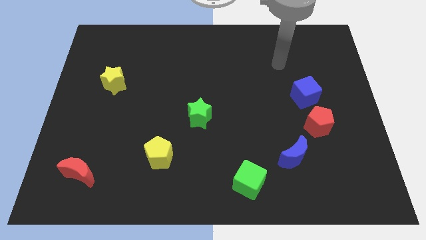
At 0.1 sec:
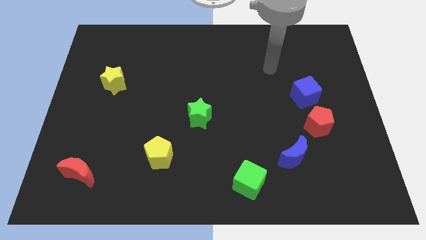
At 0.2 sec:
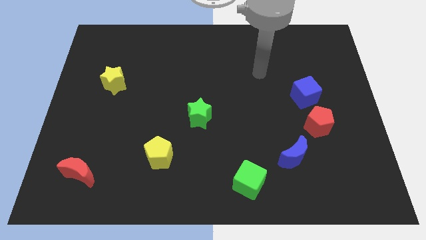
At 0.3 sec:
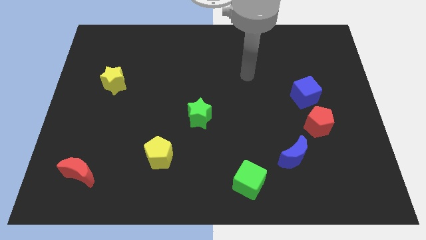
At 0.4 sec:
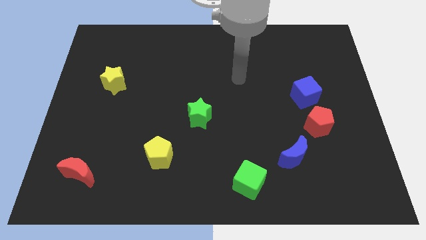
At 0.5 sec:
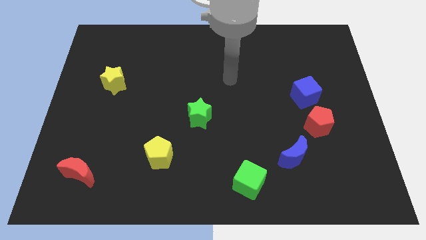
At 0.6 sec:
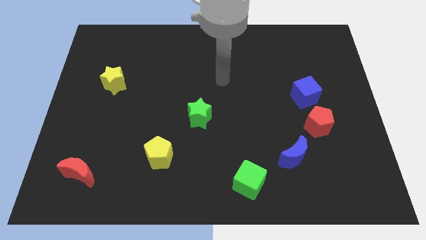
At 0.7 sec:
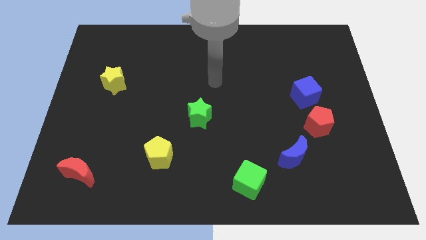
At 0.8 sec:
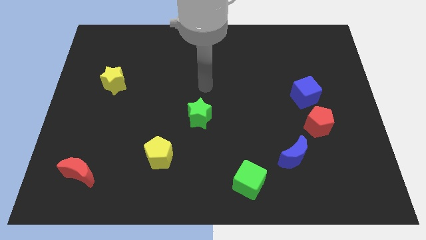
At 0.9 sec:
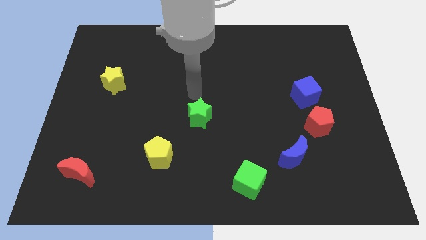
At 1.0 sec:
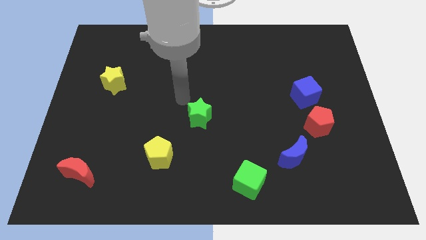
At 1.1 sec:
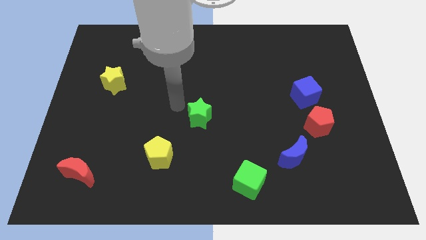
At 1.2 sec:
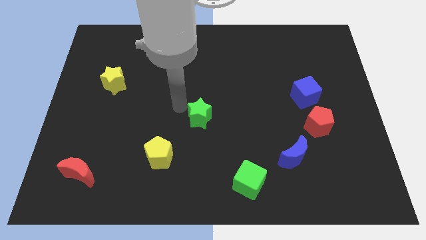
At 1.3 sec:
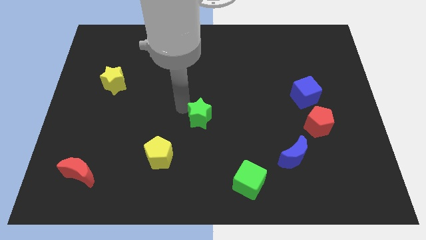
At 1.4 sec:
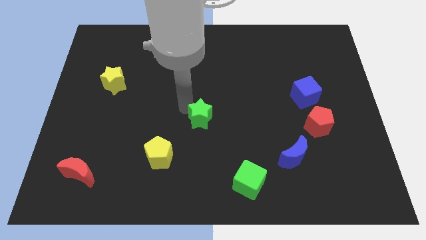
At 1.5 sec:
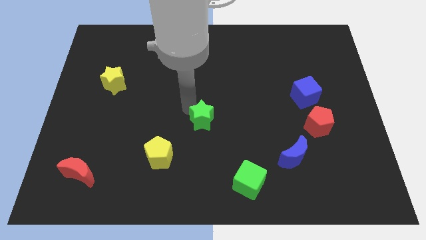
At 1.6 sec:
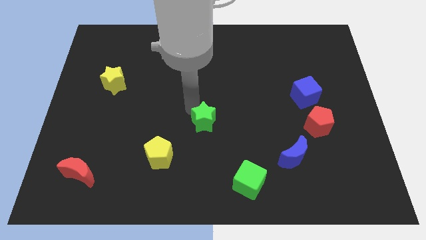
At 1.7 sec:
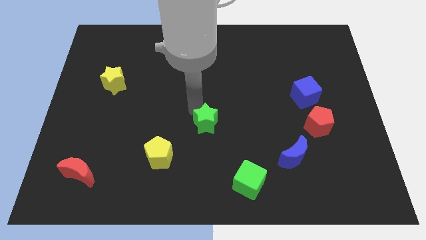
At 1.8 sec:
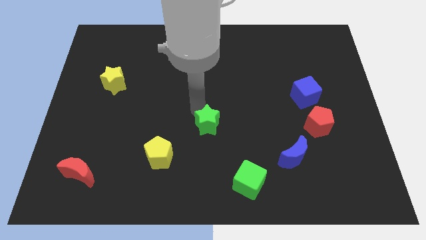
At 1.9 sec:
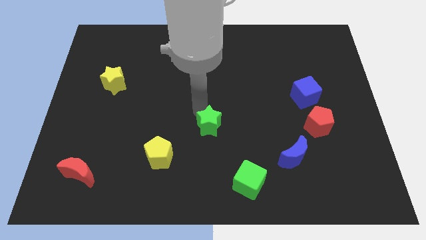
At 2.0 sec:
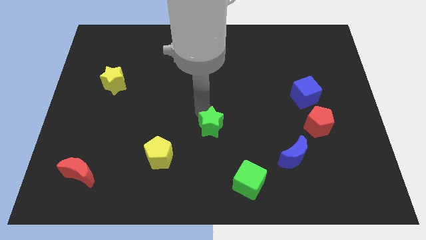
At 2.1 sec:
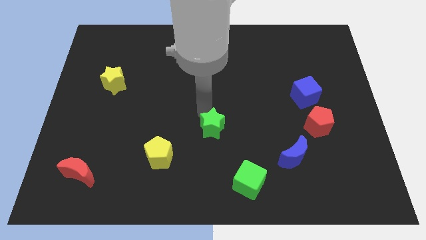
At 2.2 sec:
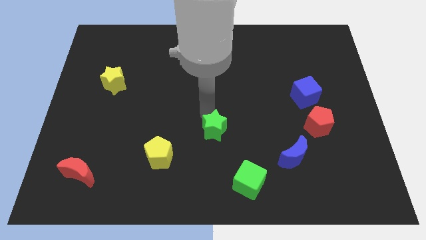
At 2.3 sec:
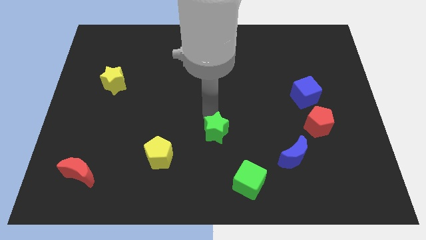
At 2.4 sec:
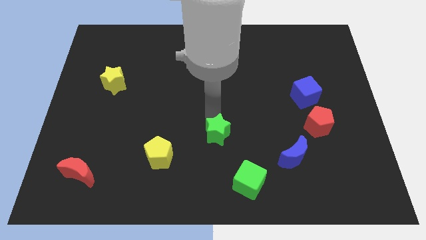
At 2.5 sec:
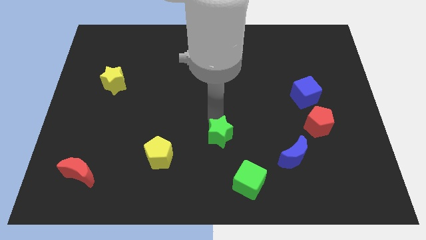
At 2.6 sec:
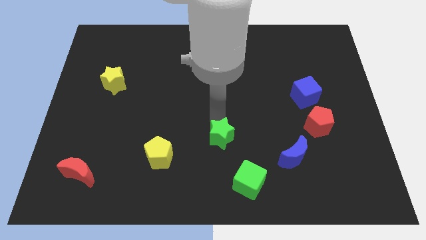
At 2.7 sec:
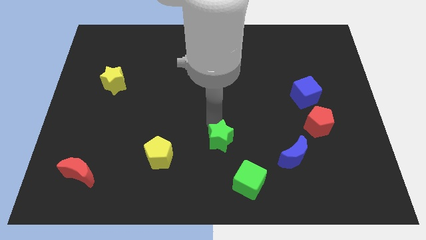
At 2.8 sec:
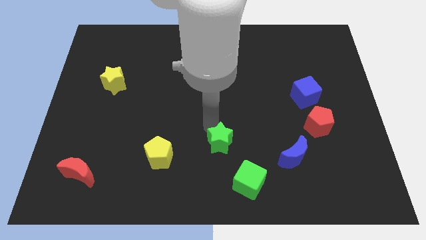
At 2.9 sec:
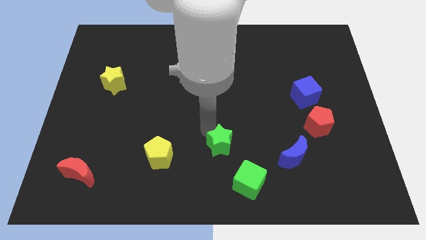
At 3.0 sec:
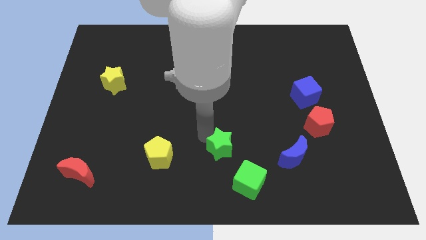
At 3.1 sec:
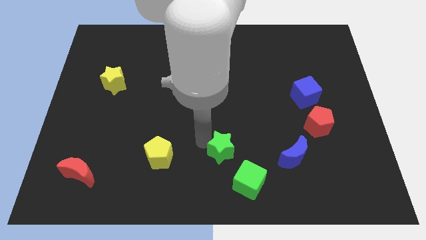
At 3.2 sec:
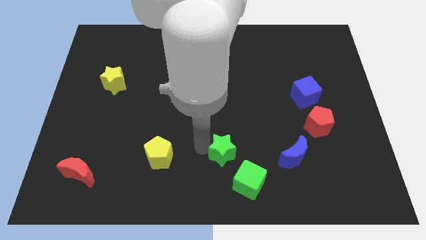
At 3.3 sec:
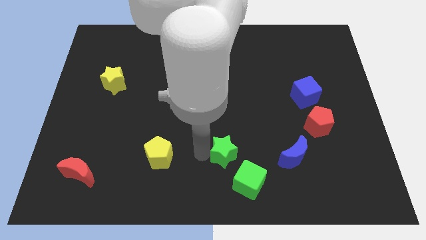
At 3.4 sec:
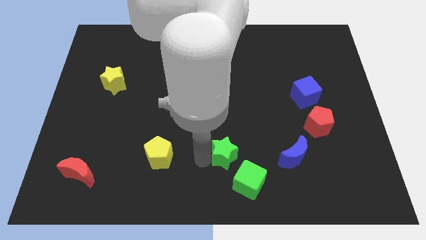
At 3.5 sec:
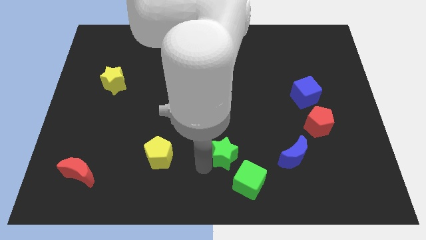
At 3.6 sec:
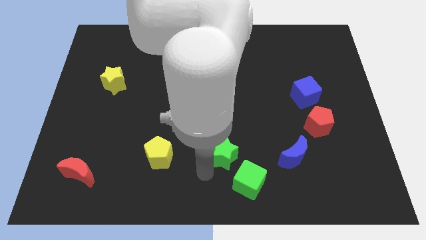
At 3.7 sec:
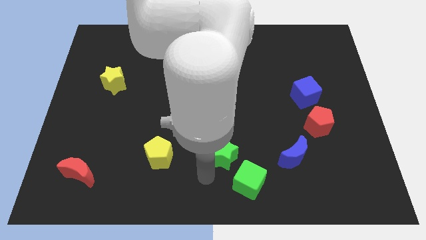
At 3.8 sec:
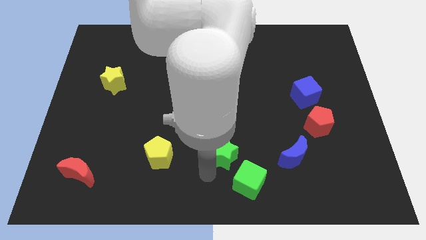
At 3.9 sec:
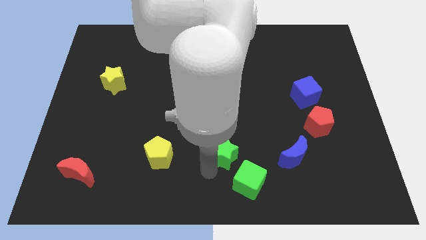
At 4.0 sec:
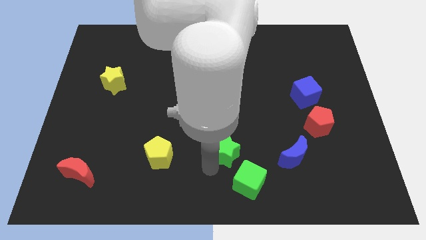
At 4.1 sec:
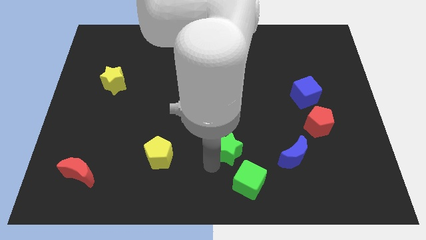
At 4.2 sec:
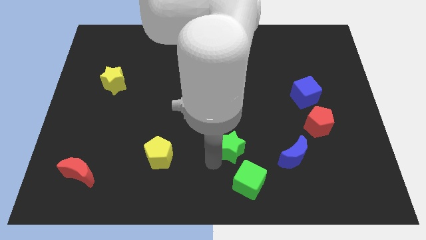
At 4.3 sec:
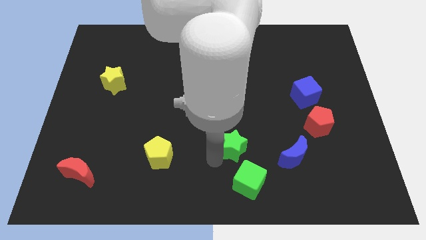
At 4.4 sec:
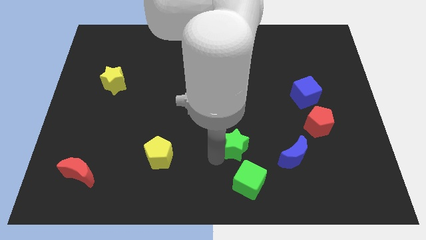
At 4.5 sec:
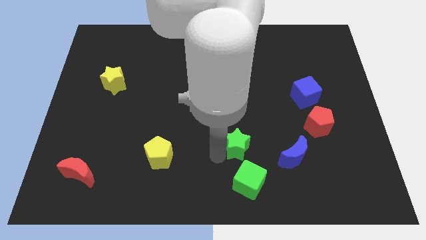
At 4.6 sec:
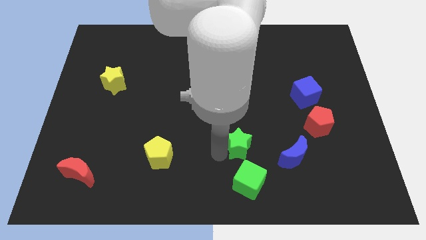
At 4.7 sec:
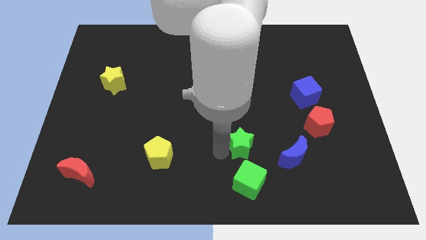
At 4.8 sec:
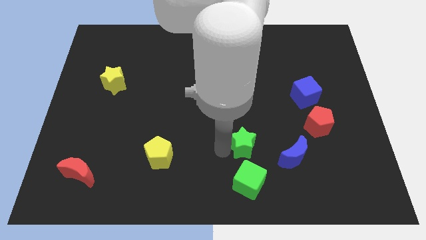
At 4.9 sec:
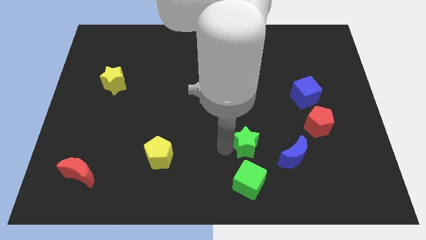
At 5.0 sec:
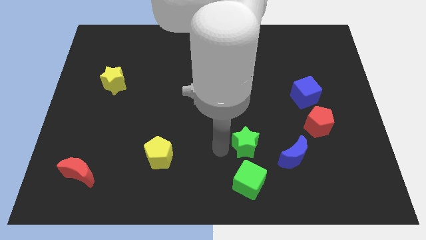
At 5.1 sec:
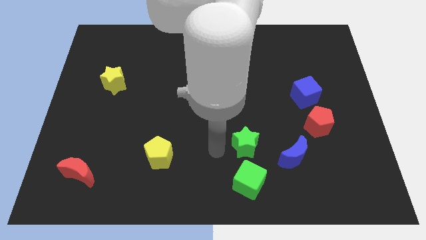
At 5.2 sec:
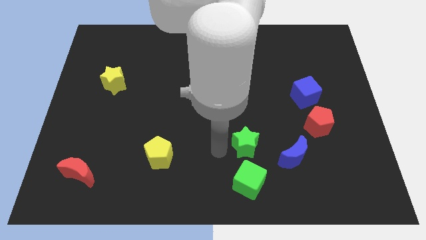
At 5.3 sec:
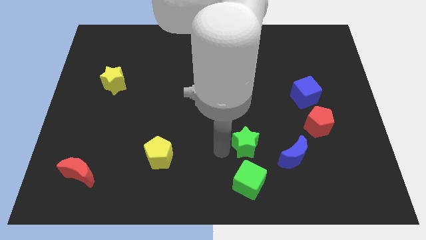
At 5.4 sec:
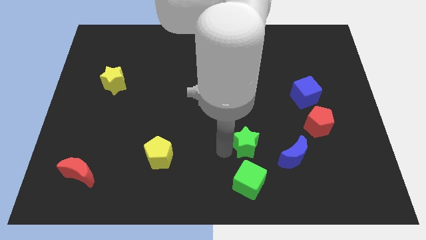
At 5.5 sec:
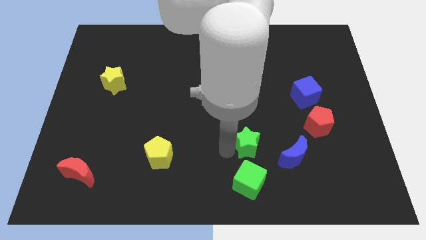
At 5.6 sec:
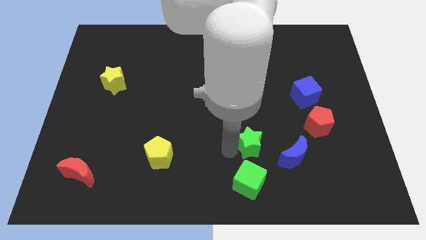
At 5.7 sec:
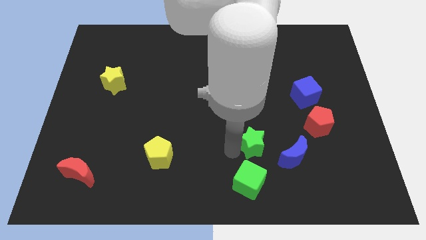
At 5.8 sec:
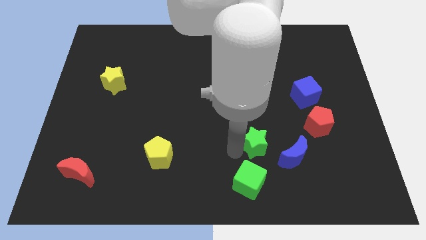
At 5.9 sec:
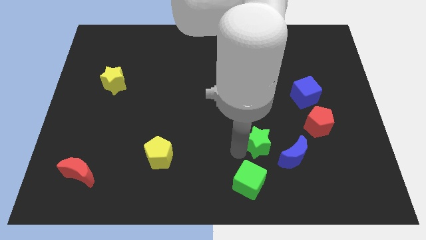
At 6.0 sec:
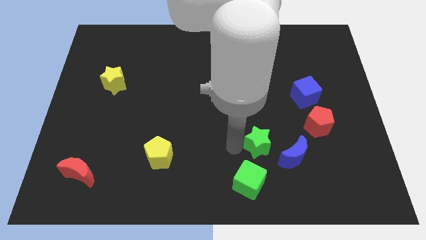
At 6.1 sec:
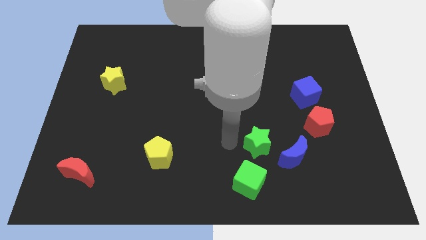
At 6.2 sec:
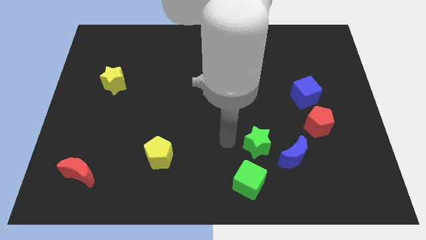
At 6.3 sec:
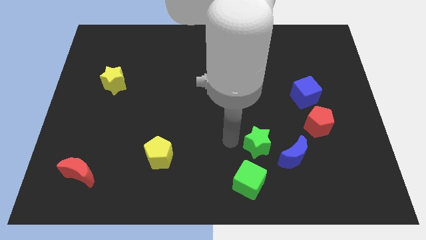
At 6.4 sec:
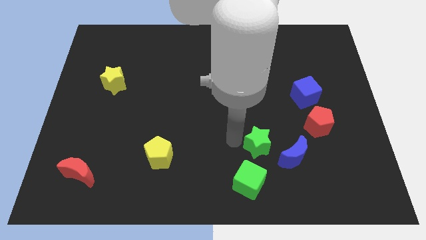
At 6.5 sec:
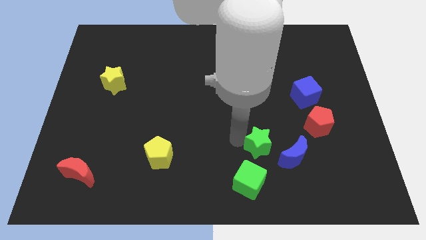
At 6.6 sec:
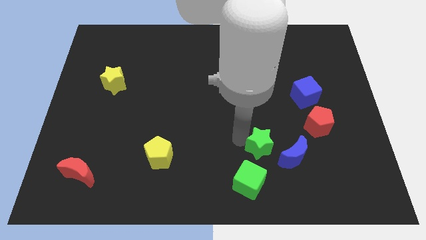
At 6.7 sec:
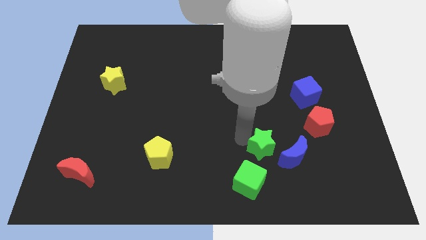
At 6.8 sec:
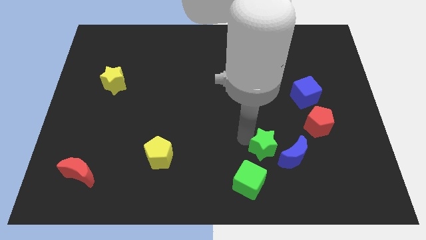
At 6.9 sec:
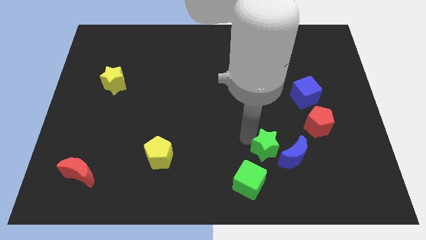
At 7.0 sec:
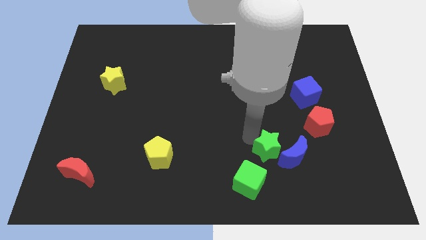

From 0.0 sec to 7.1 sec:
push the green star next to the blue moon
